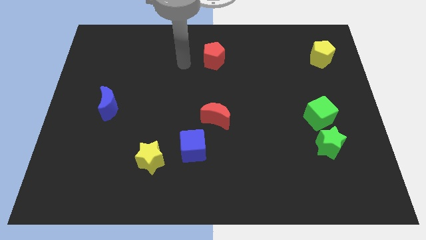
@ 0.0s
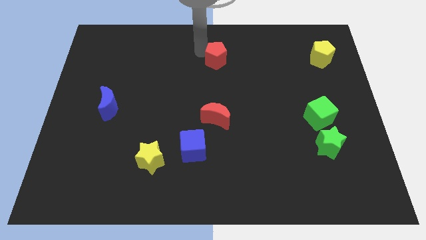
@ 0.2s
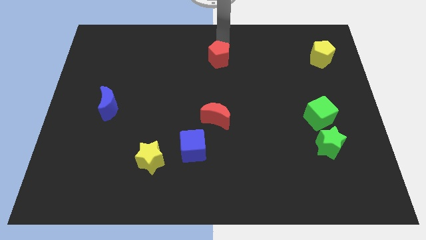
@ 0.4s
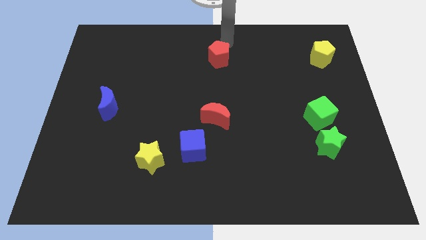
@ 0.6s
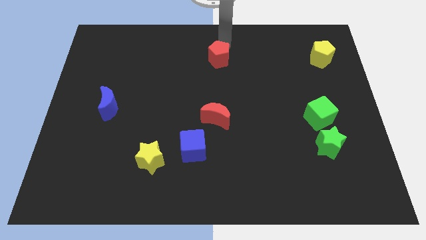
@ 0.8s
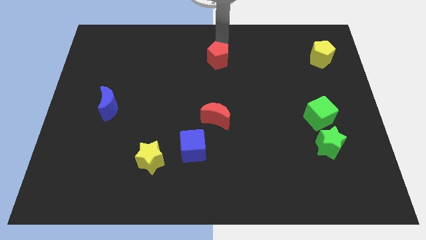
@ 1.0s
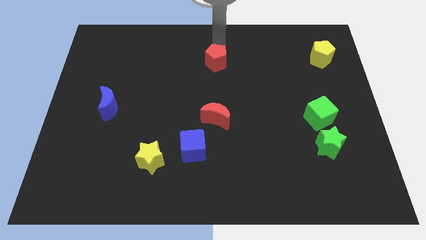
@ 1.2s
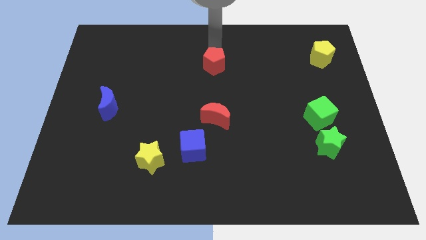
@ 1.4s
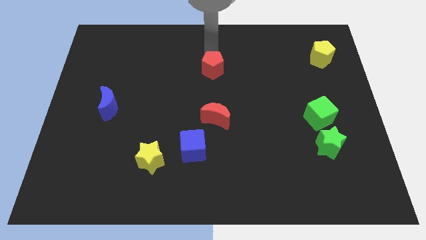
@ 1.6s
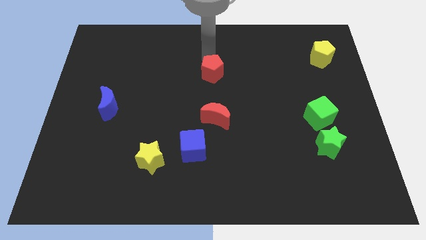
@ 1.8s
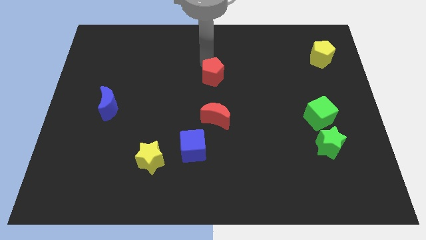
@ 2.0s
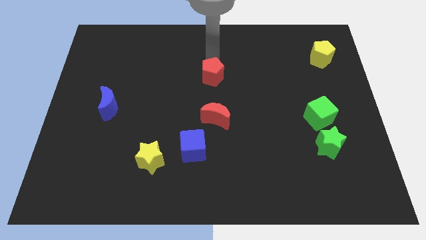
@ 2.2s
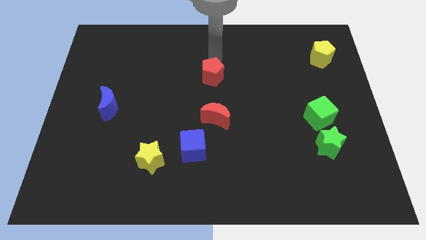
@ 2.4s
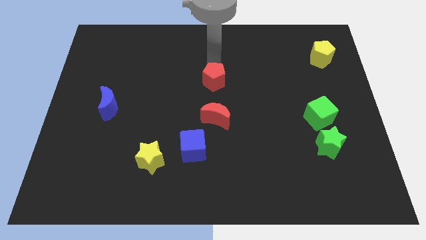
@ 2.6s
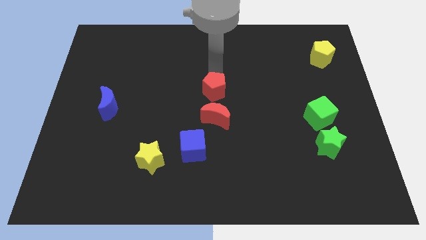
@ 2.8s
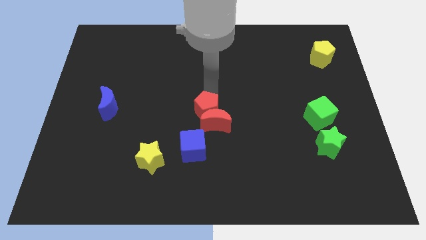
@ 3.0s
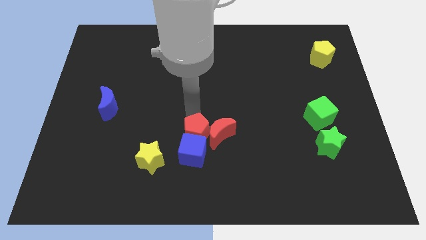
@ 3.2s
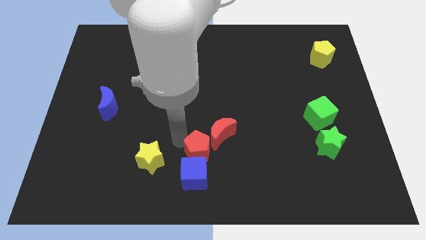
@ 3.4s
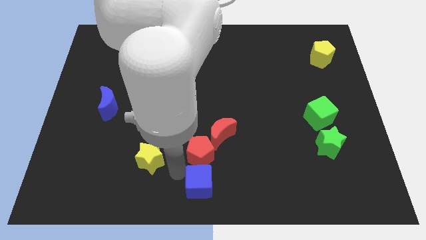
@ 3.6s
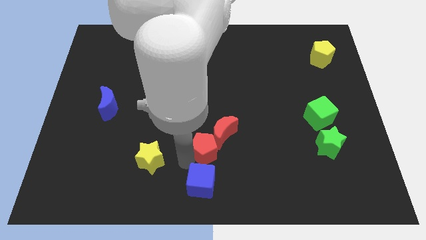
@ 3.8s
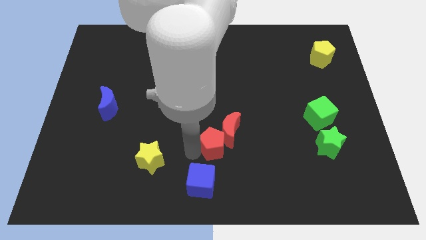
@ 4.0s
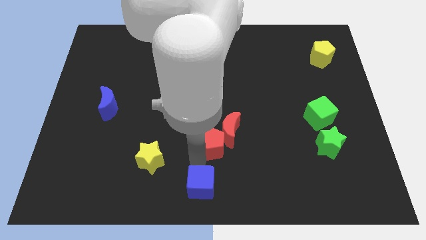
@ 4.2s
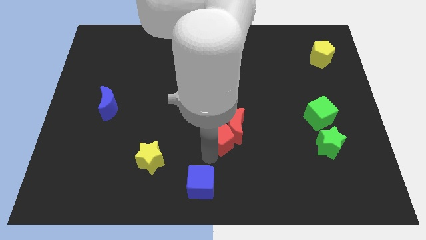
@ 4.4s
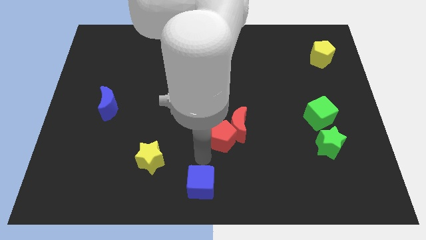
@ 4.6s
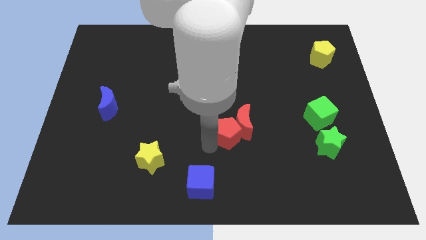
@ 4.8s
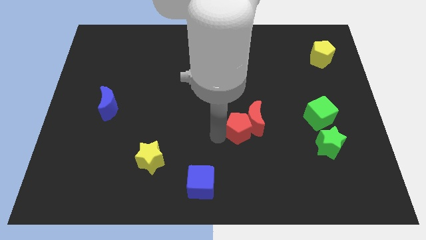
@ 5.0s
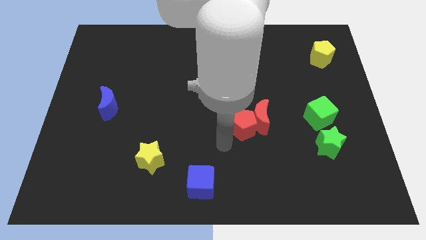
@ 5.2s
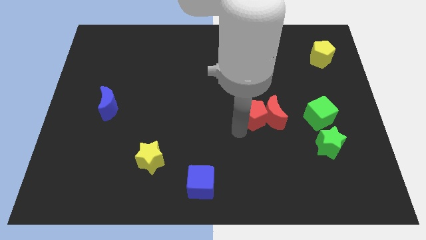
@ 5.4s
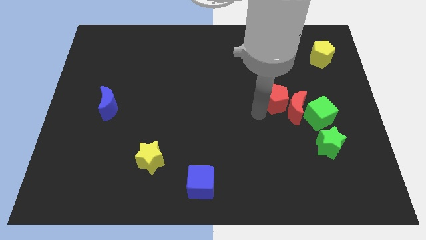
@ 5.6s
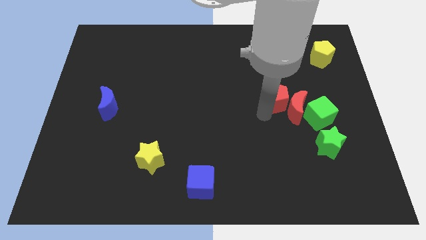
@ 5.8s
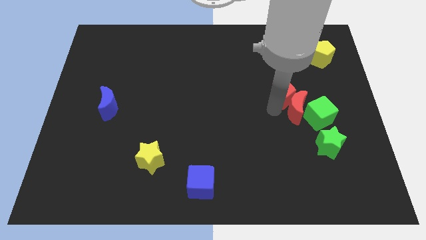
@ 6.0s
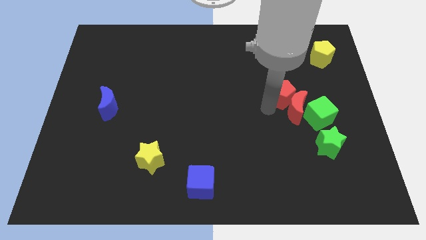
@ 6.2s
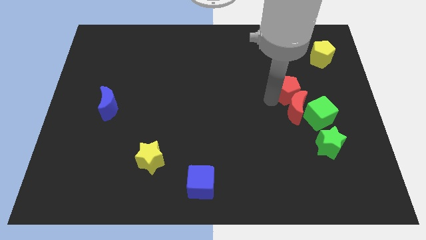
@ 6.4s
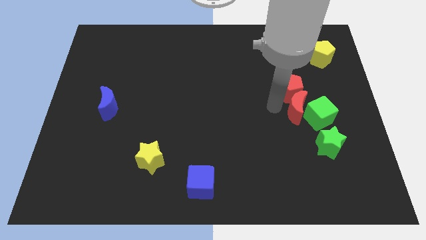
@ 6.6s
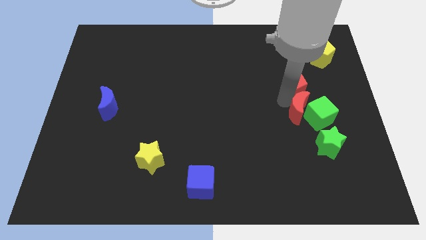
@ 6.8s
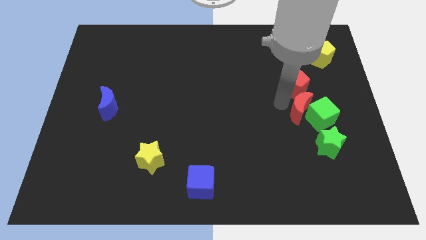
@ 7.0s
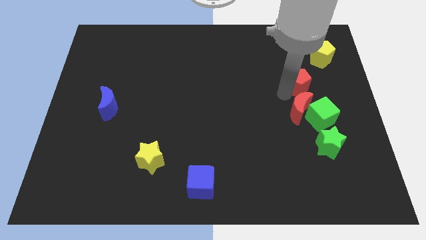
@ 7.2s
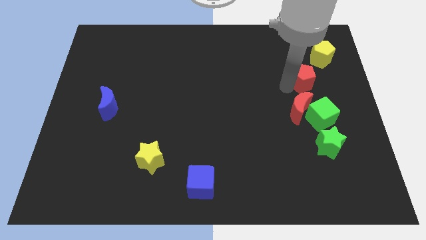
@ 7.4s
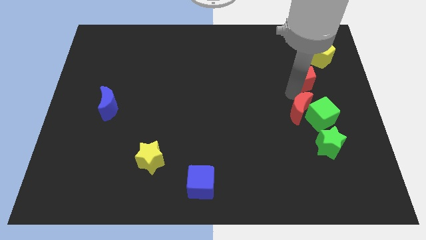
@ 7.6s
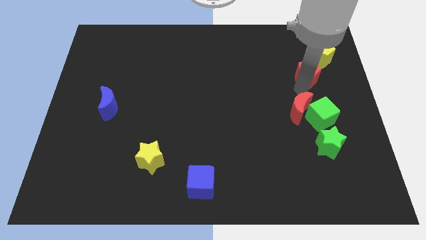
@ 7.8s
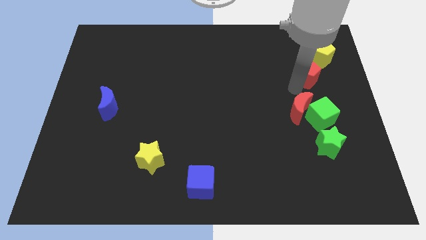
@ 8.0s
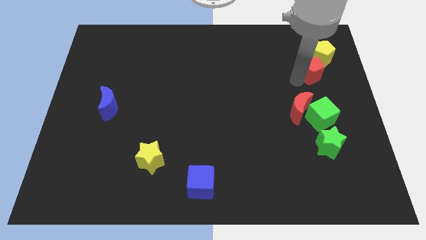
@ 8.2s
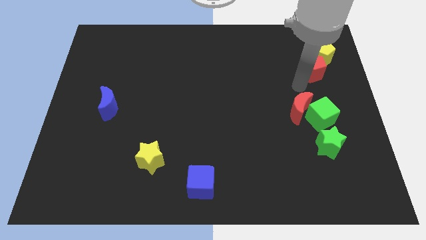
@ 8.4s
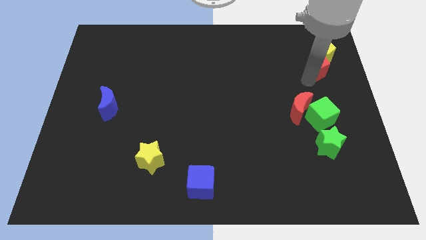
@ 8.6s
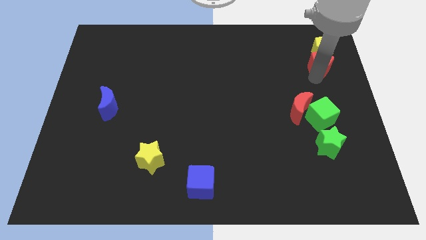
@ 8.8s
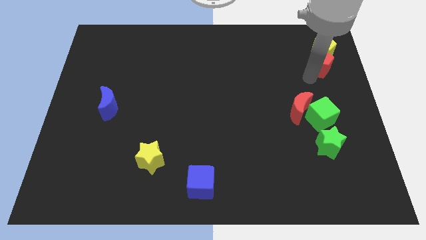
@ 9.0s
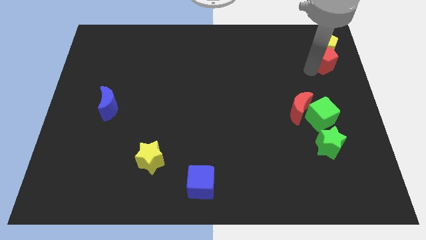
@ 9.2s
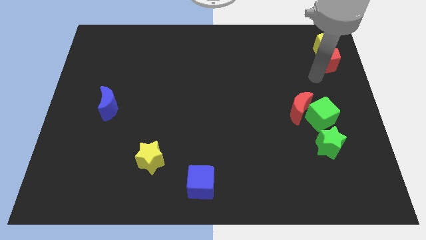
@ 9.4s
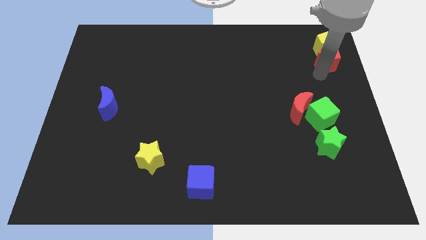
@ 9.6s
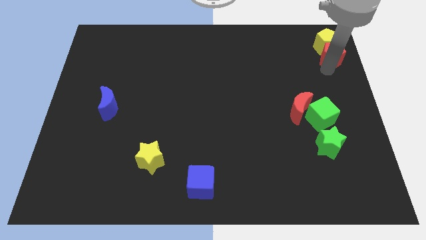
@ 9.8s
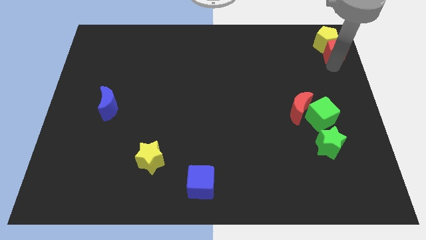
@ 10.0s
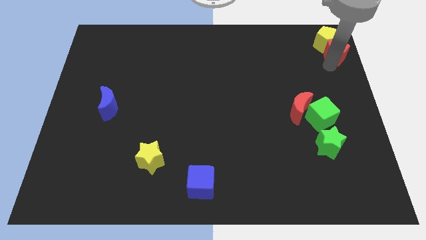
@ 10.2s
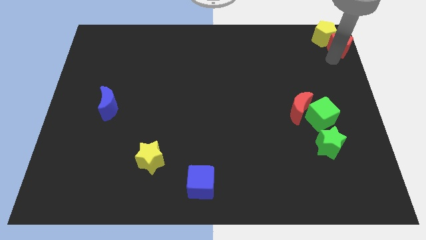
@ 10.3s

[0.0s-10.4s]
push the red pentagon to the top right of the board
